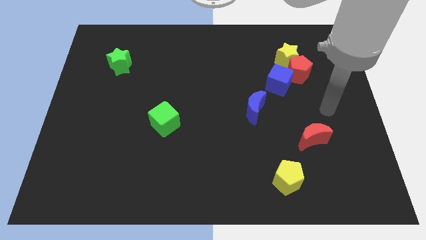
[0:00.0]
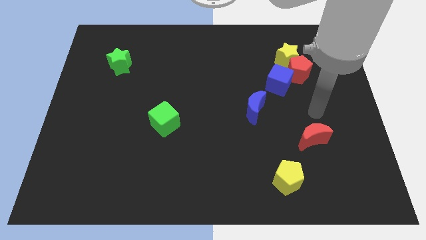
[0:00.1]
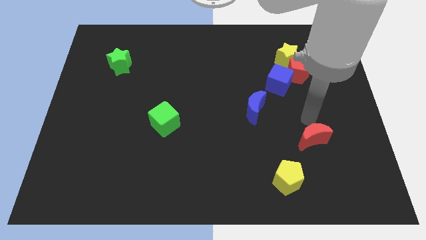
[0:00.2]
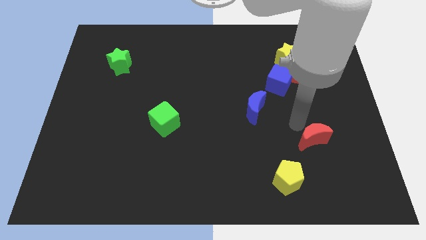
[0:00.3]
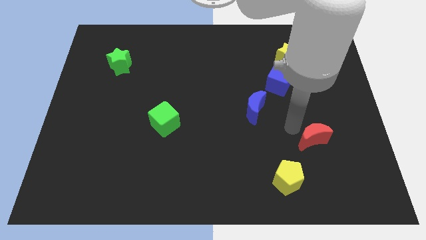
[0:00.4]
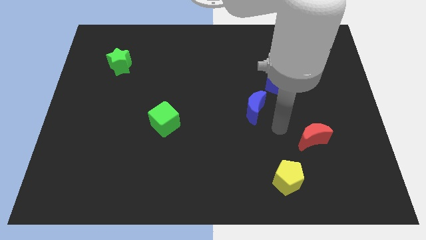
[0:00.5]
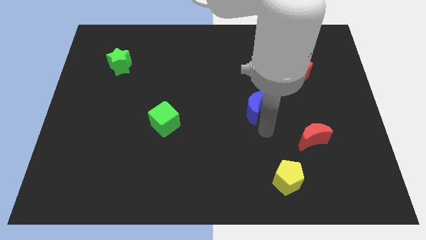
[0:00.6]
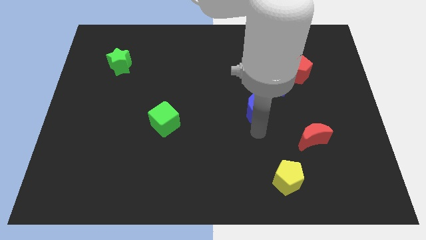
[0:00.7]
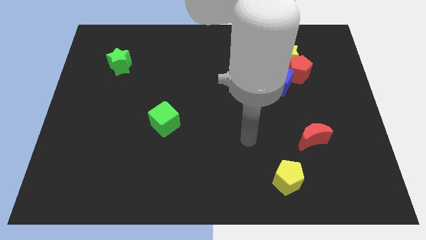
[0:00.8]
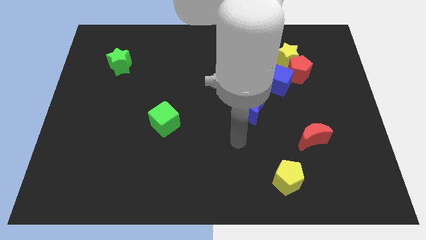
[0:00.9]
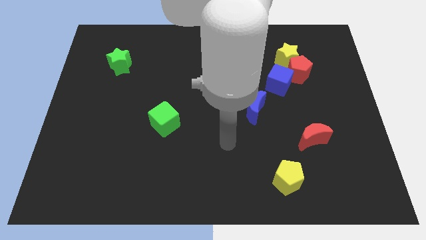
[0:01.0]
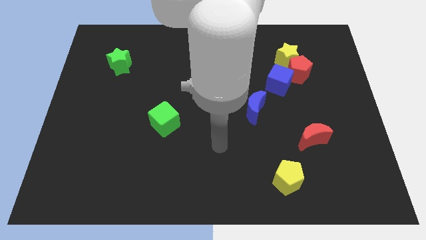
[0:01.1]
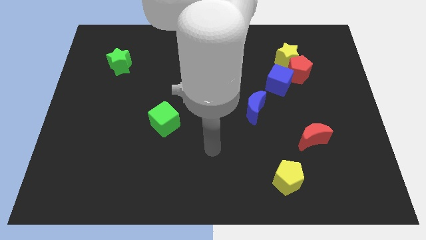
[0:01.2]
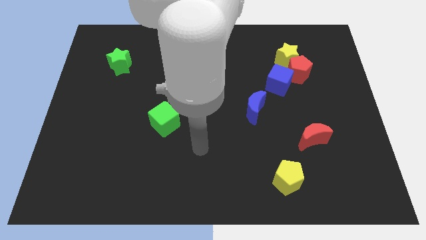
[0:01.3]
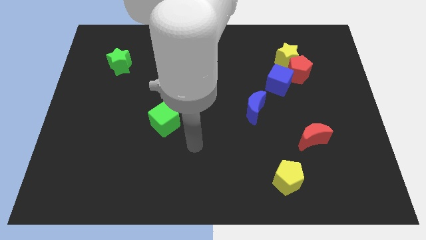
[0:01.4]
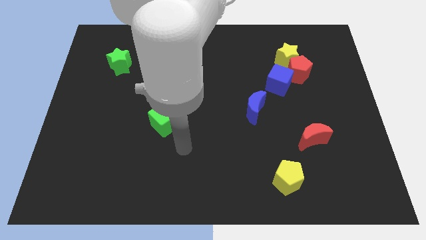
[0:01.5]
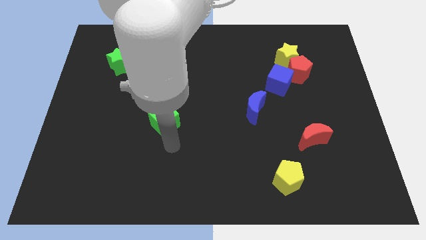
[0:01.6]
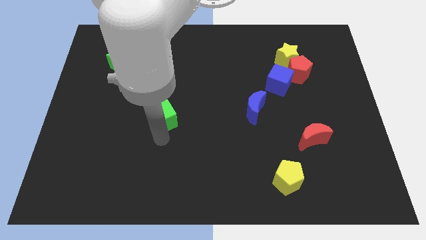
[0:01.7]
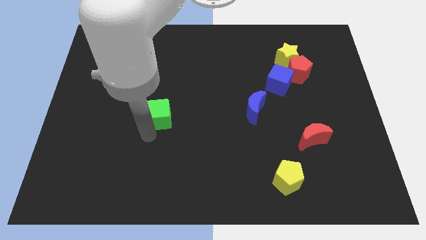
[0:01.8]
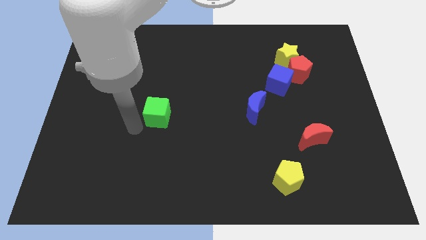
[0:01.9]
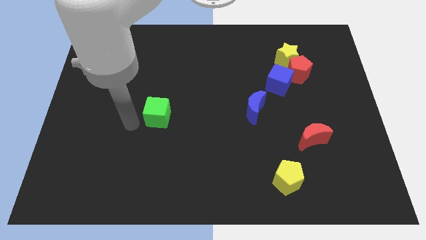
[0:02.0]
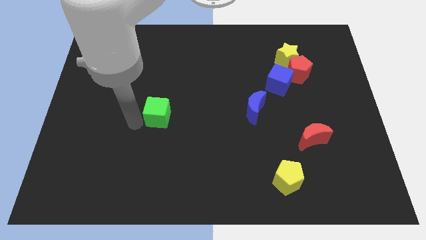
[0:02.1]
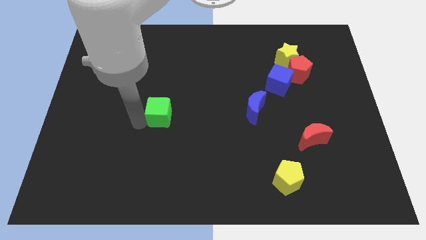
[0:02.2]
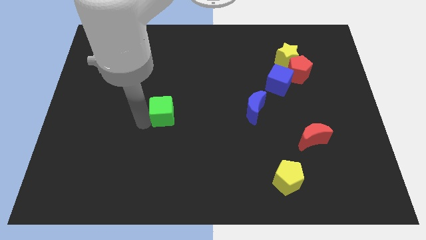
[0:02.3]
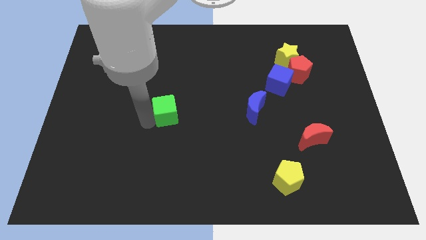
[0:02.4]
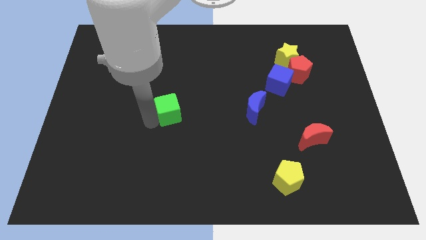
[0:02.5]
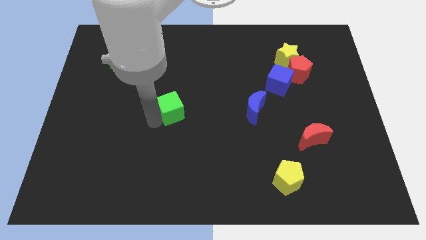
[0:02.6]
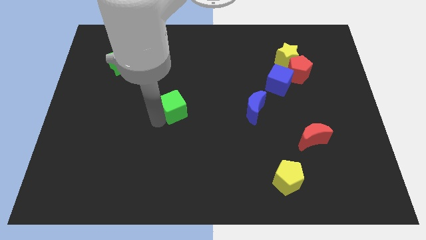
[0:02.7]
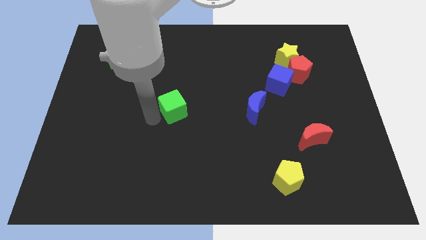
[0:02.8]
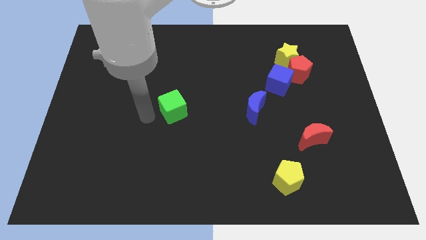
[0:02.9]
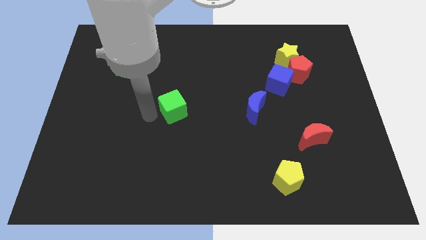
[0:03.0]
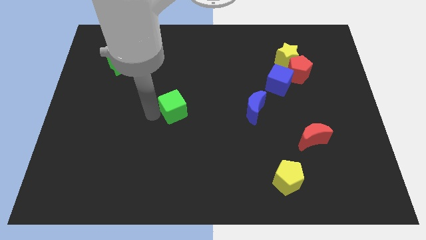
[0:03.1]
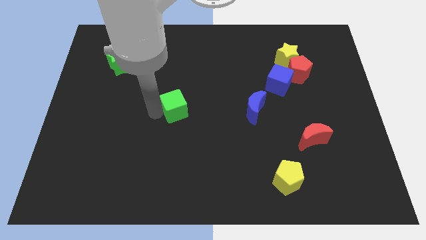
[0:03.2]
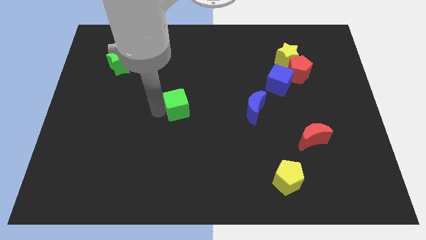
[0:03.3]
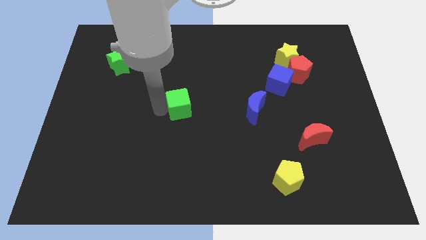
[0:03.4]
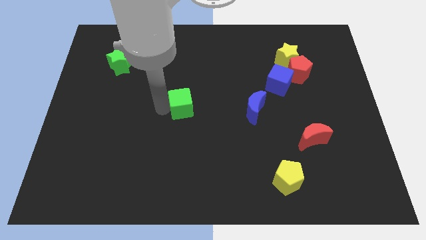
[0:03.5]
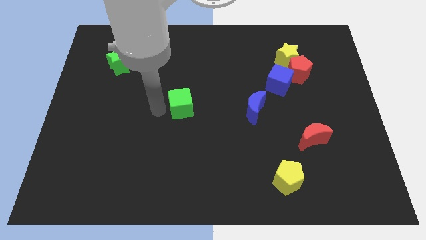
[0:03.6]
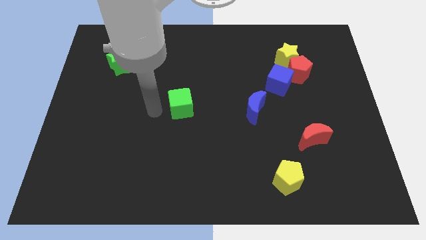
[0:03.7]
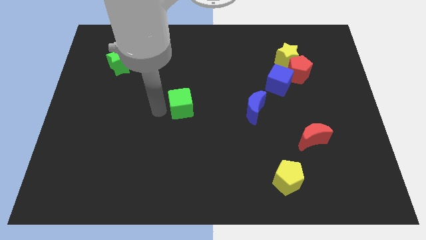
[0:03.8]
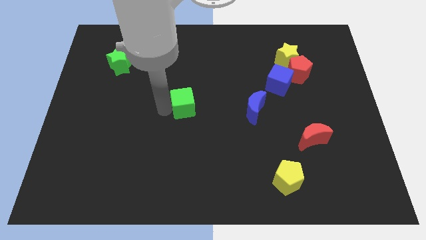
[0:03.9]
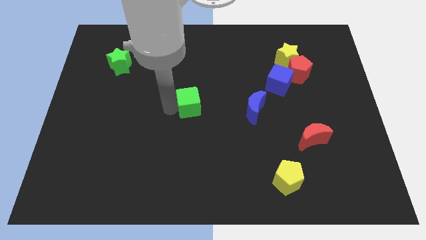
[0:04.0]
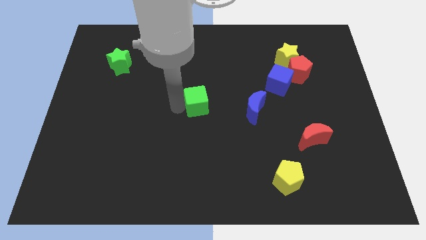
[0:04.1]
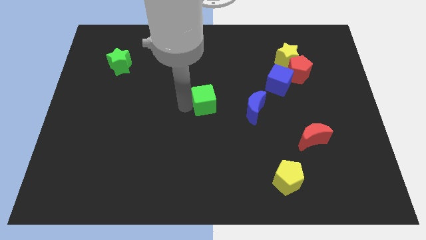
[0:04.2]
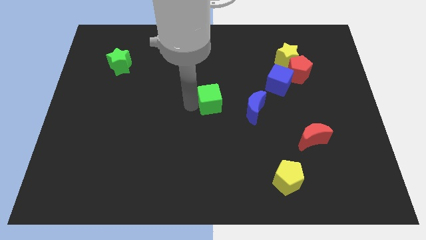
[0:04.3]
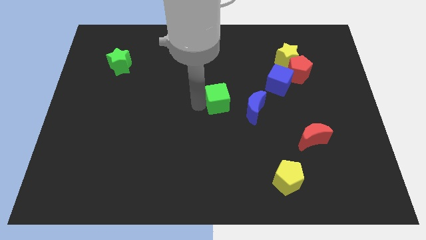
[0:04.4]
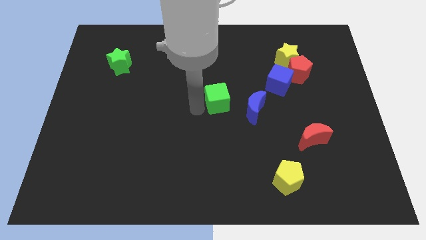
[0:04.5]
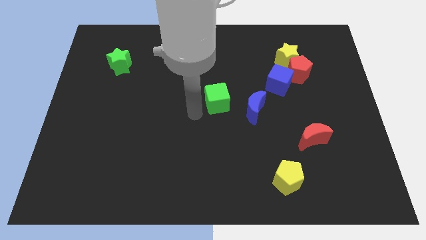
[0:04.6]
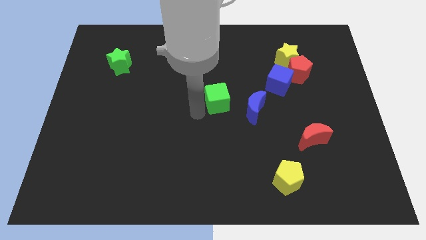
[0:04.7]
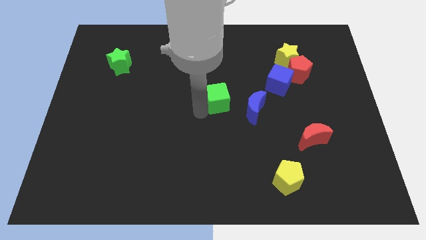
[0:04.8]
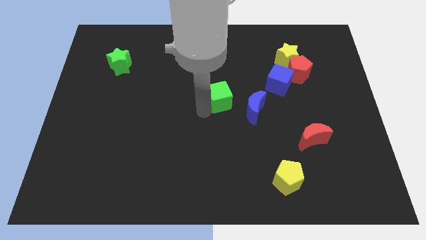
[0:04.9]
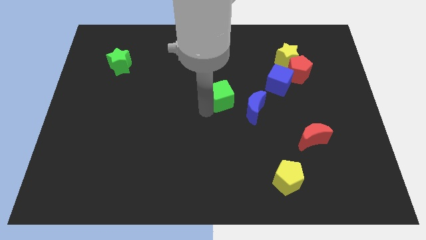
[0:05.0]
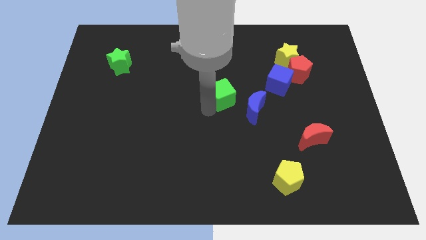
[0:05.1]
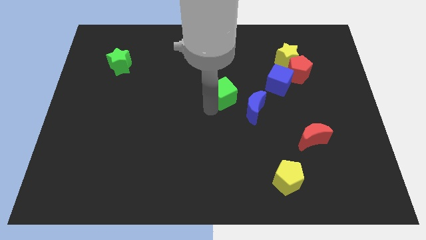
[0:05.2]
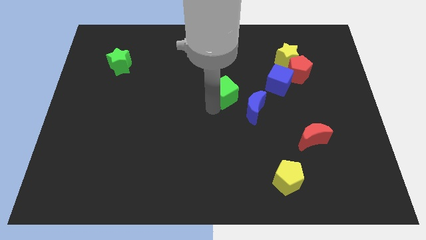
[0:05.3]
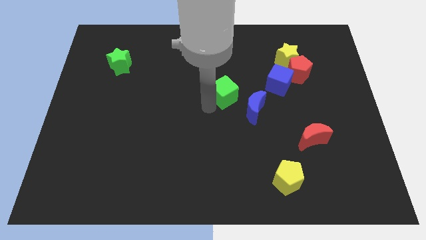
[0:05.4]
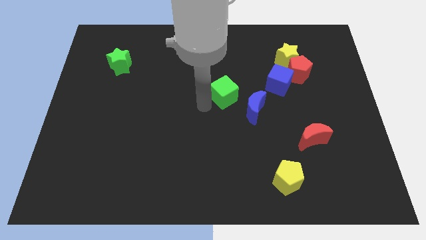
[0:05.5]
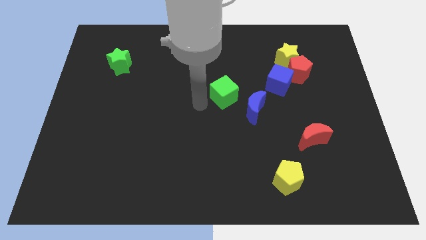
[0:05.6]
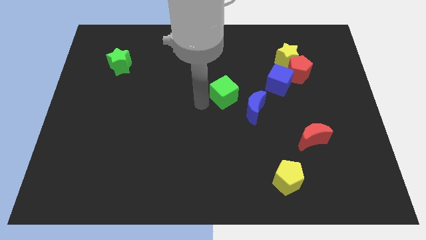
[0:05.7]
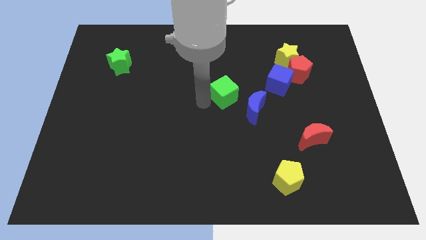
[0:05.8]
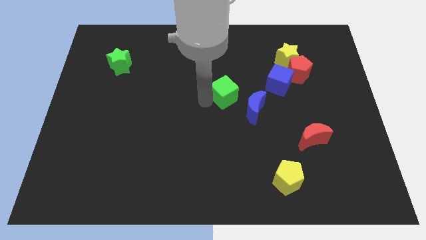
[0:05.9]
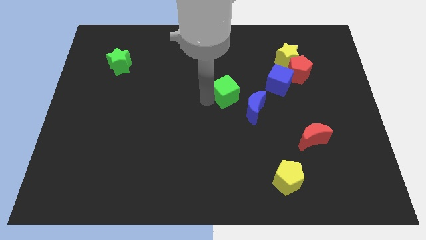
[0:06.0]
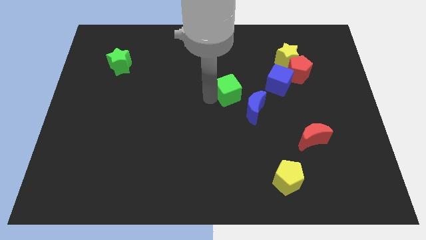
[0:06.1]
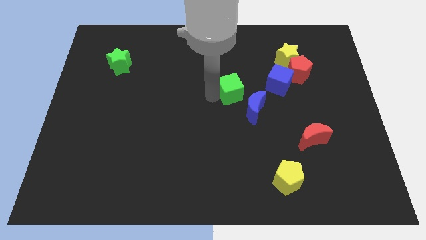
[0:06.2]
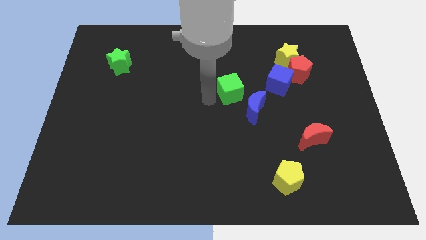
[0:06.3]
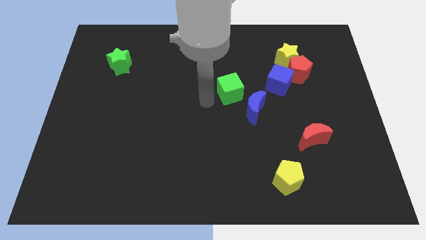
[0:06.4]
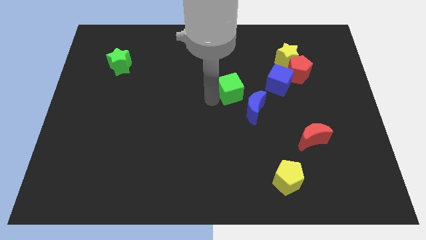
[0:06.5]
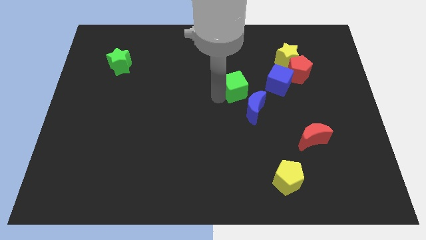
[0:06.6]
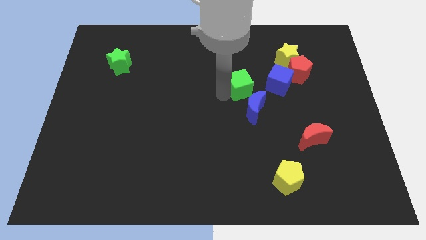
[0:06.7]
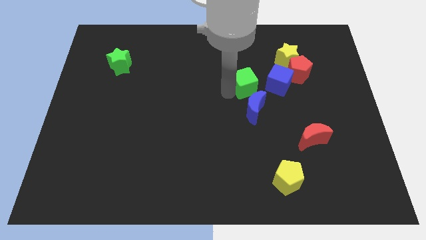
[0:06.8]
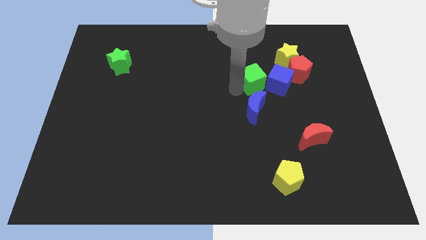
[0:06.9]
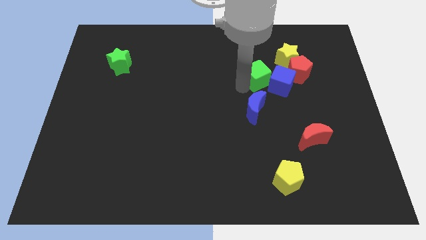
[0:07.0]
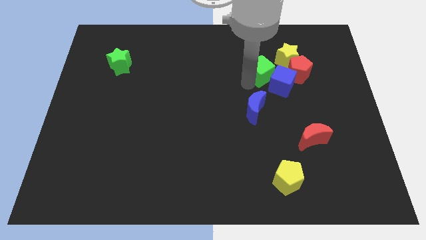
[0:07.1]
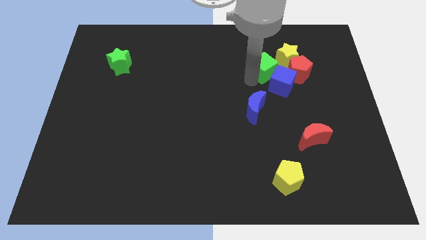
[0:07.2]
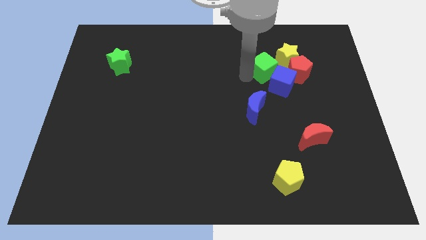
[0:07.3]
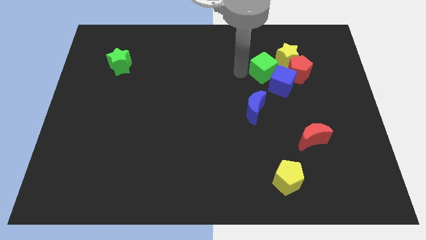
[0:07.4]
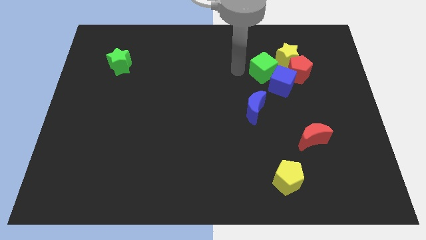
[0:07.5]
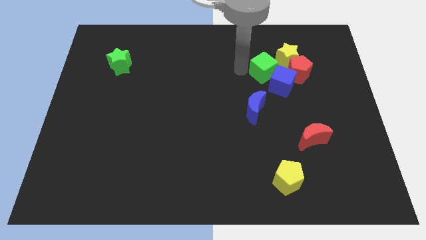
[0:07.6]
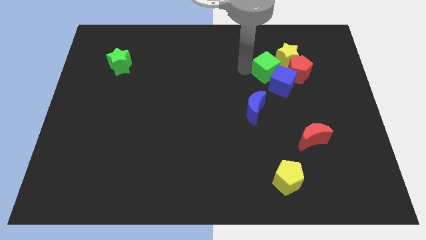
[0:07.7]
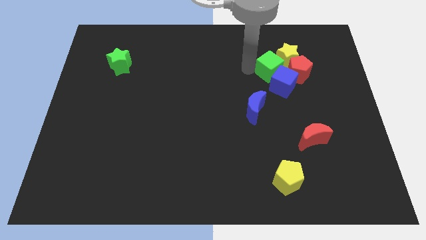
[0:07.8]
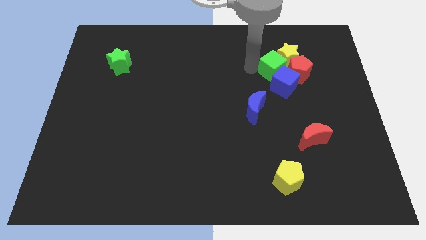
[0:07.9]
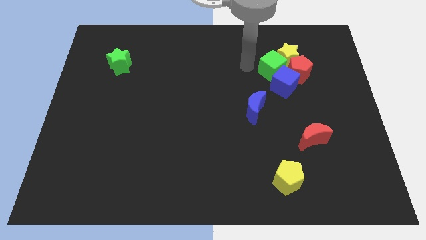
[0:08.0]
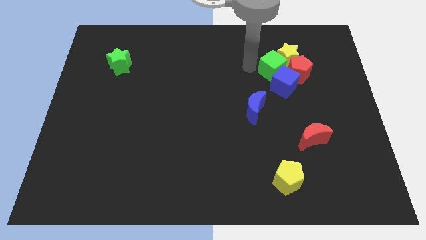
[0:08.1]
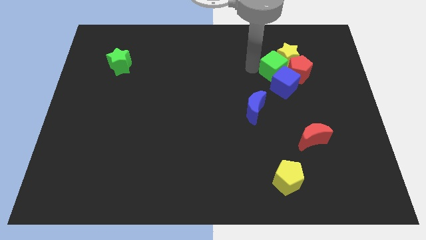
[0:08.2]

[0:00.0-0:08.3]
put the green cube towards the red pentagon
